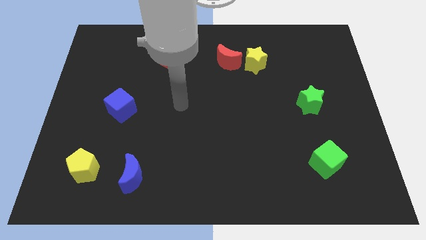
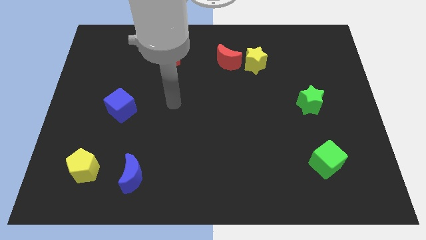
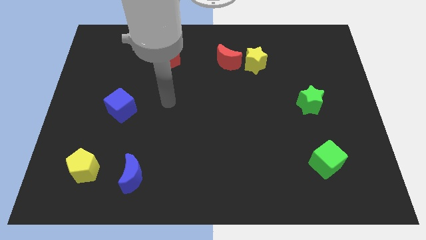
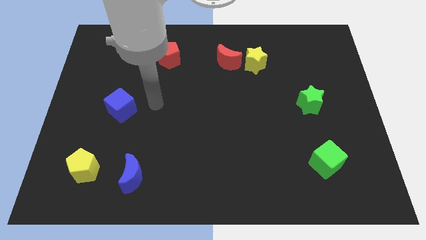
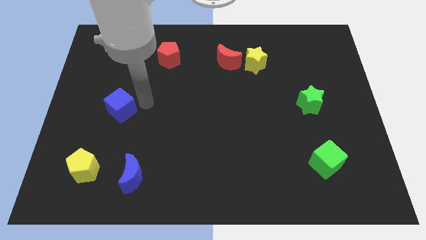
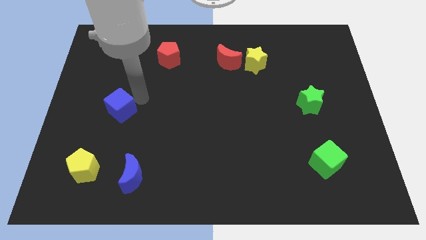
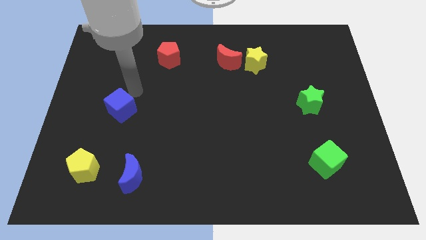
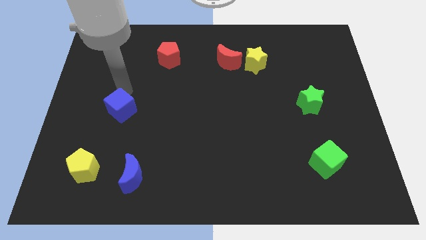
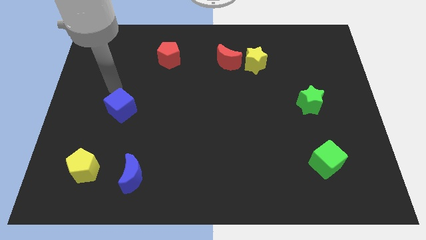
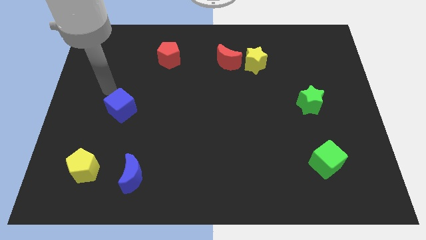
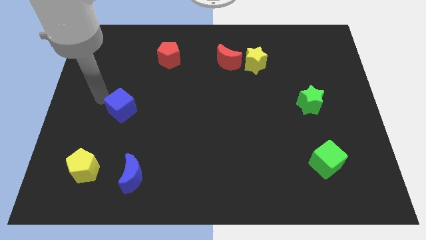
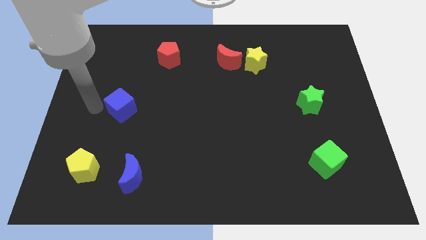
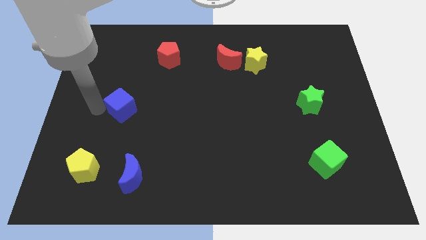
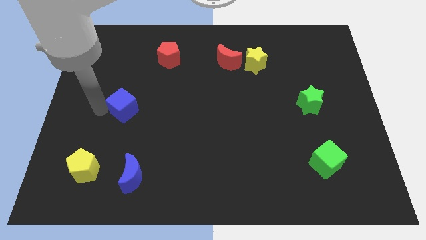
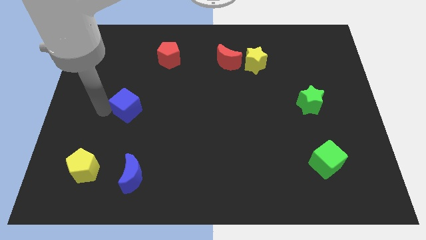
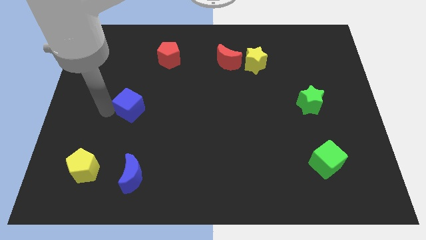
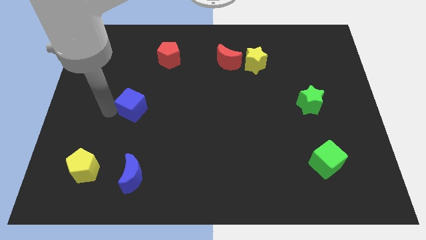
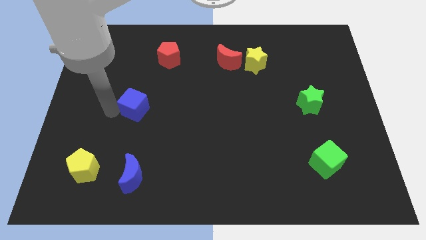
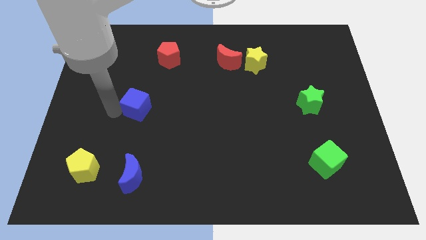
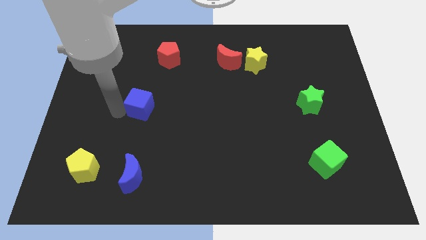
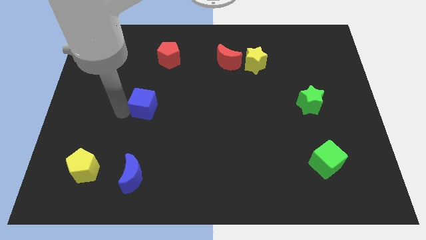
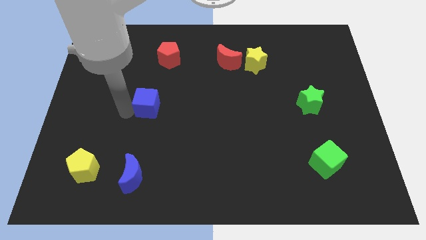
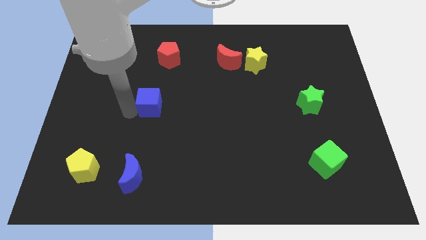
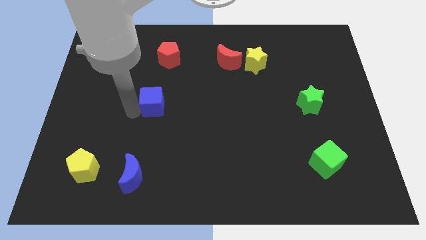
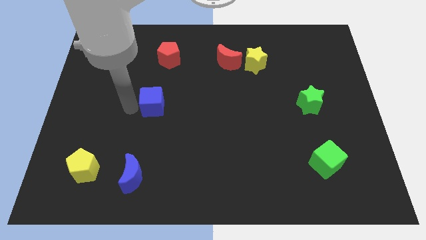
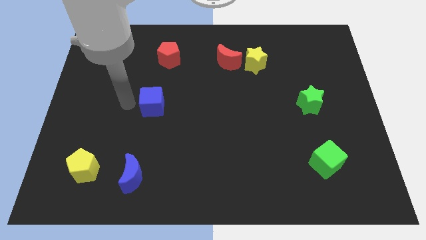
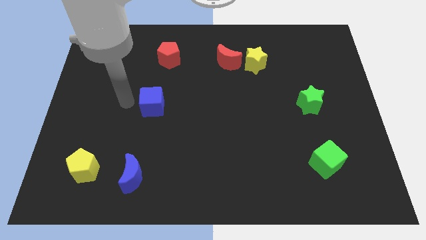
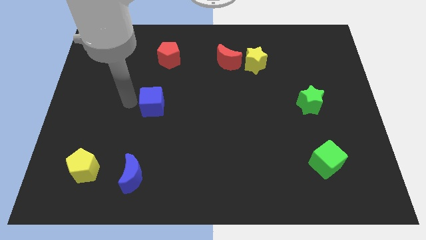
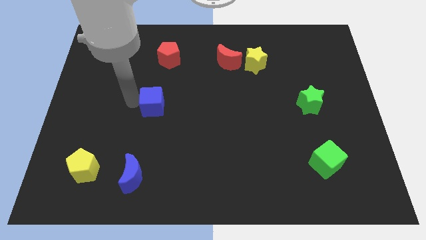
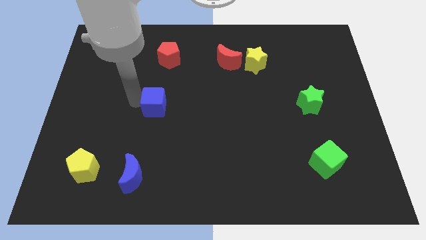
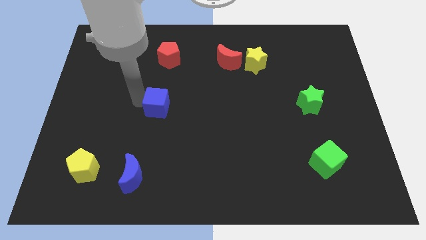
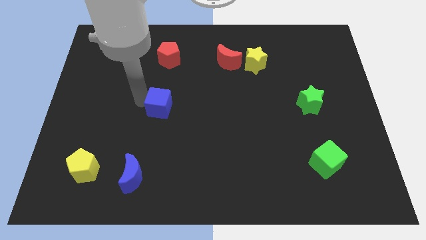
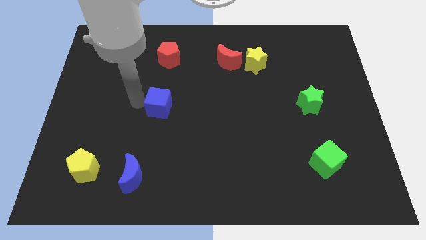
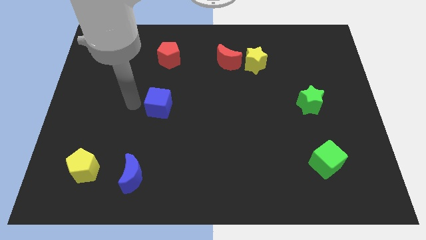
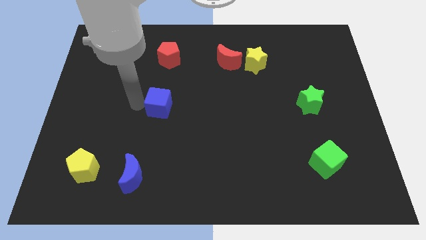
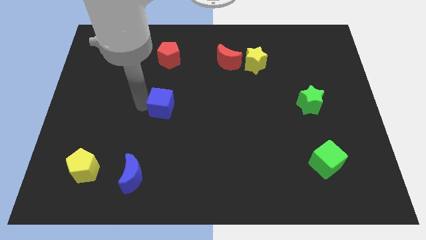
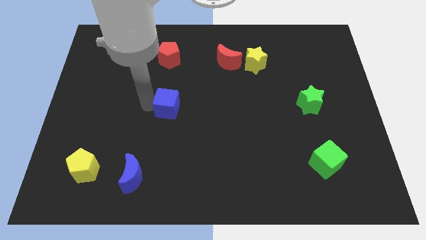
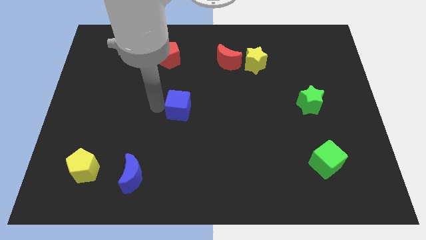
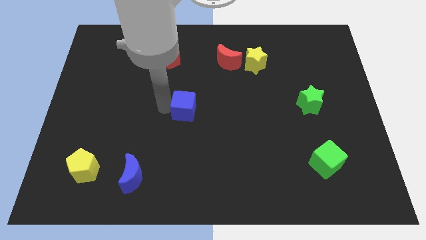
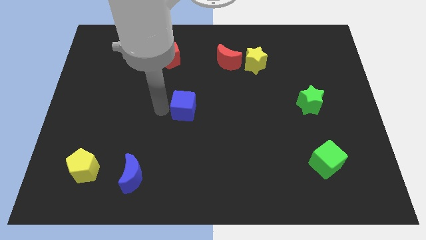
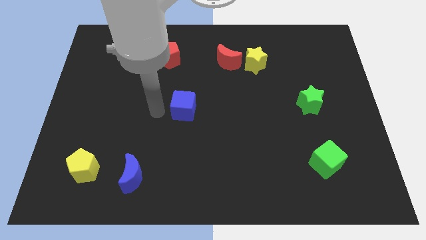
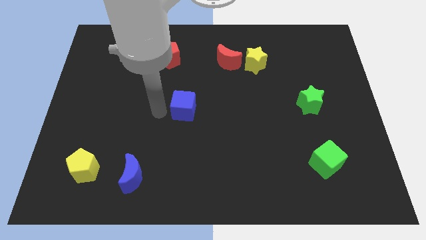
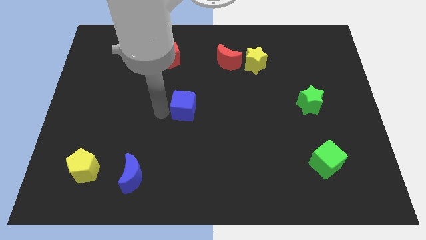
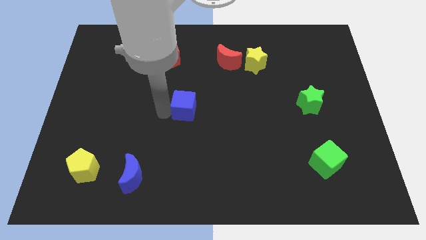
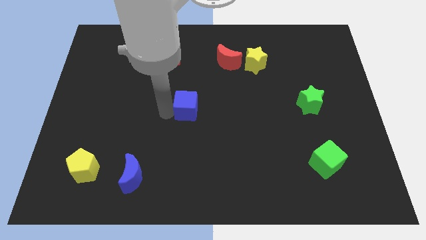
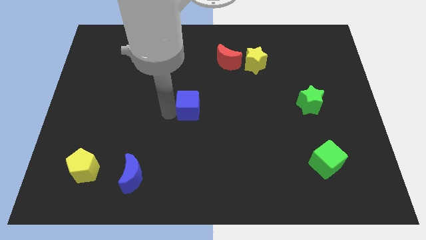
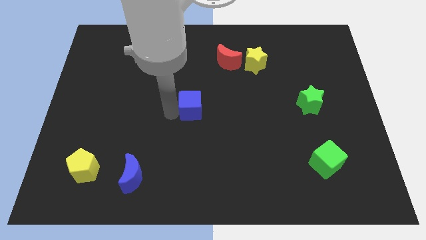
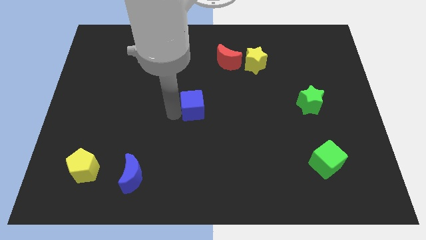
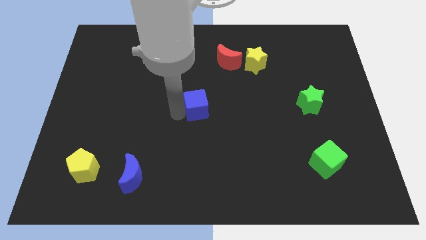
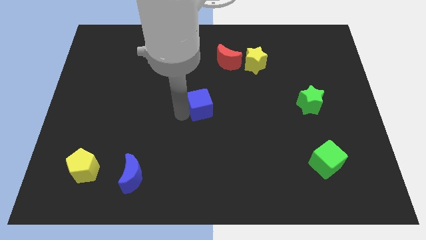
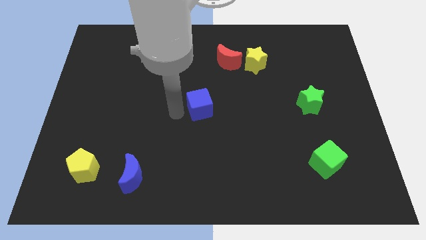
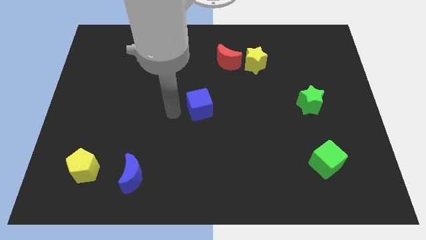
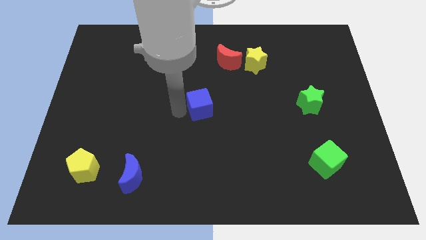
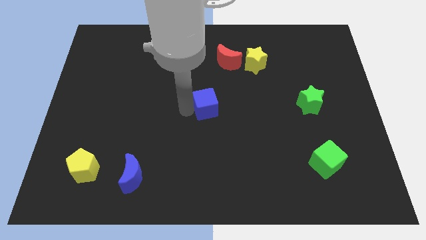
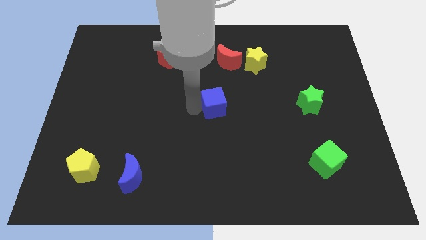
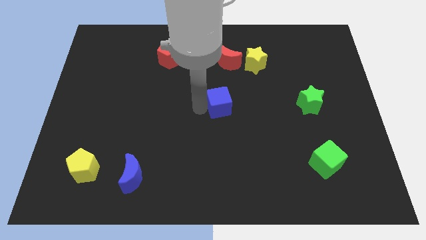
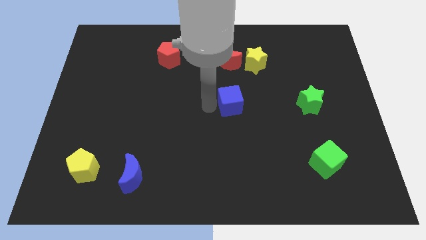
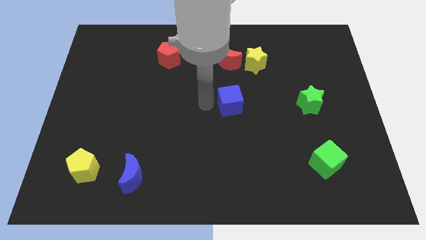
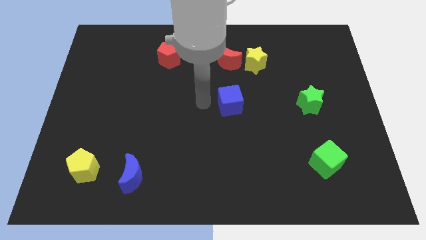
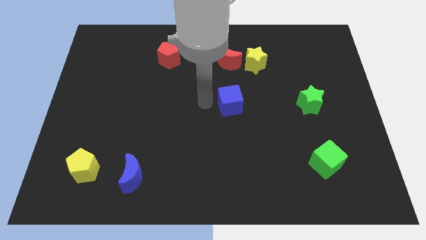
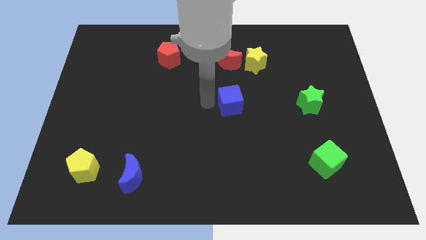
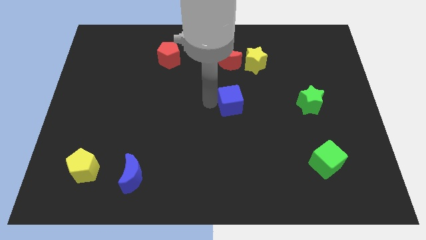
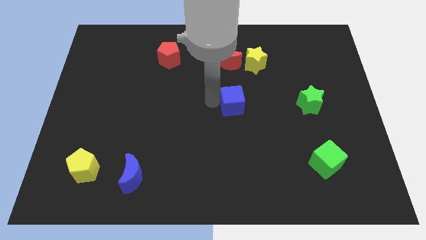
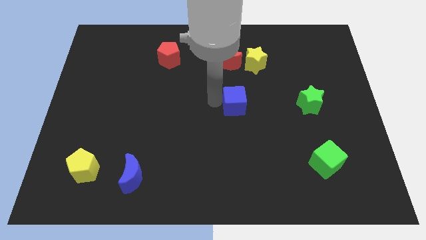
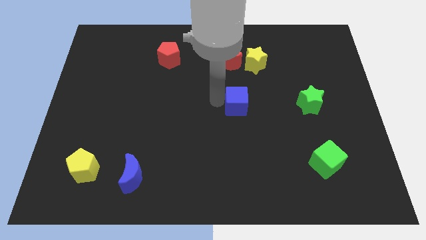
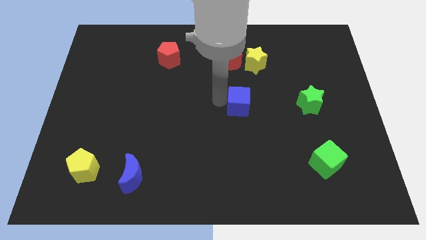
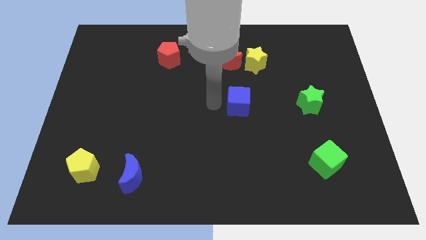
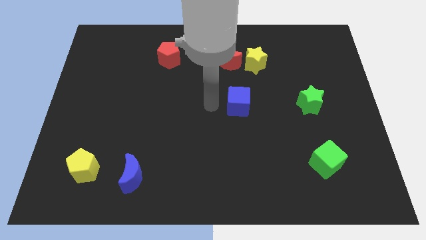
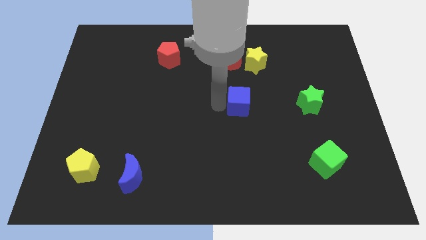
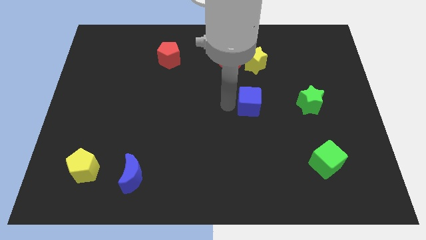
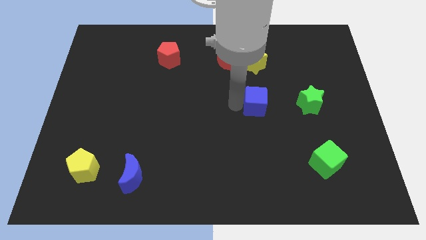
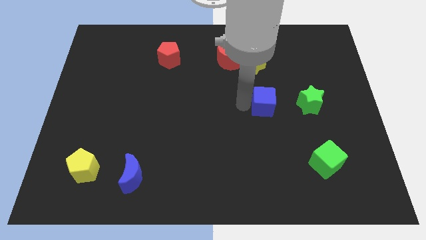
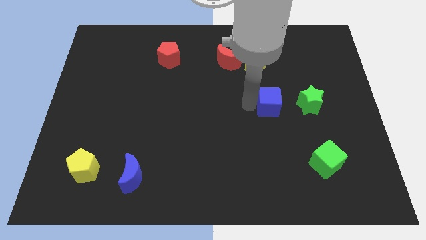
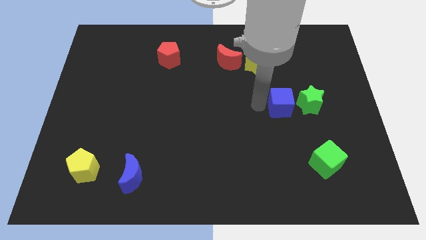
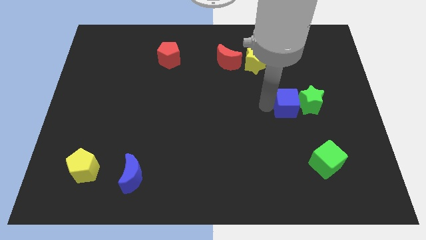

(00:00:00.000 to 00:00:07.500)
move the blue cube close to the green star
